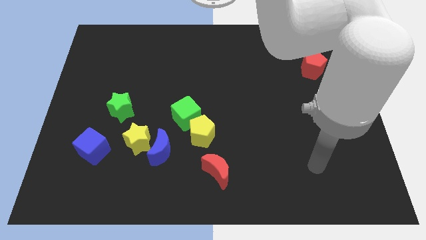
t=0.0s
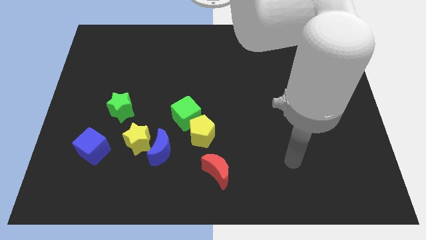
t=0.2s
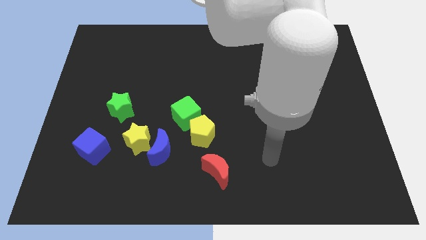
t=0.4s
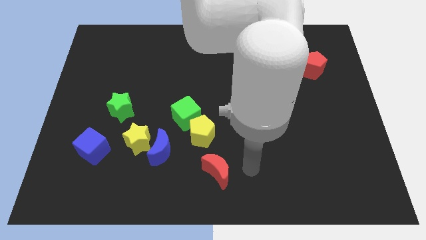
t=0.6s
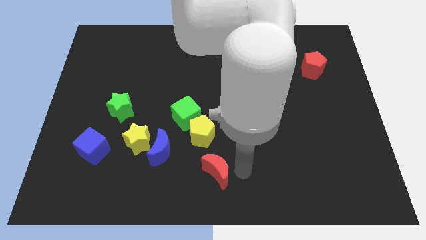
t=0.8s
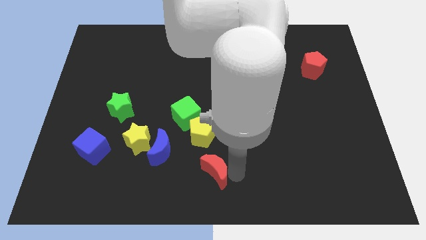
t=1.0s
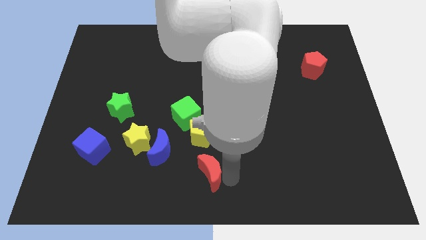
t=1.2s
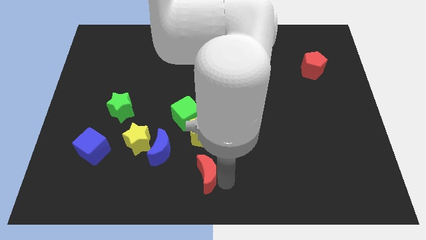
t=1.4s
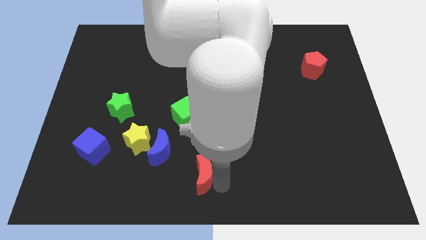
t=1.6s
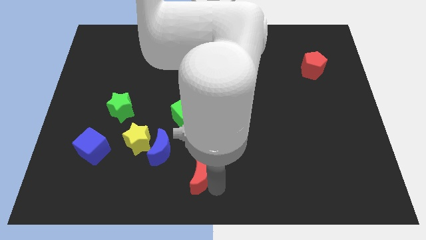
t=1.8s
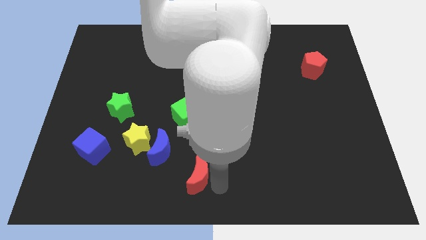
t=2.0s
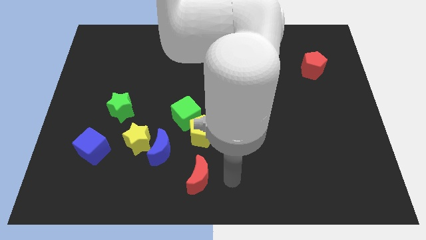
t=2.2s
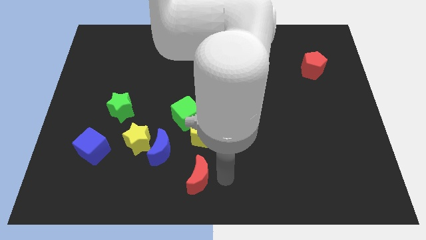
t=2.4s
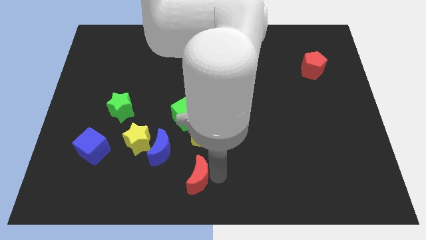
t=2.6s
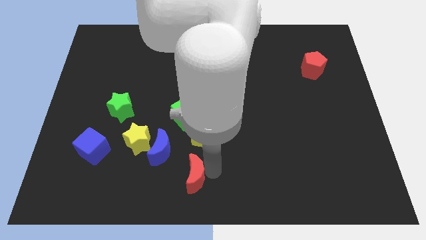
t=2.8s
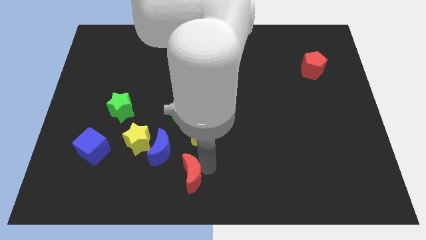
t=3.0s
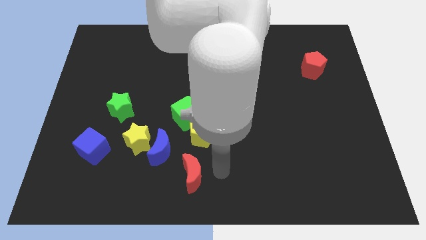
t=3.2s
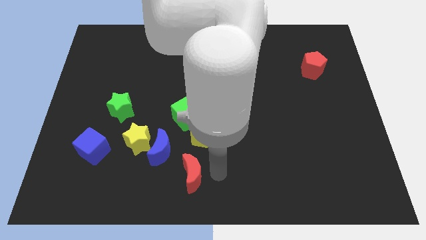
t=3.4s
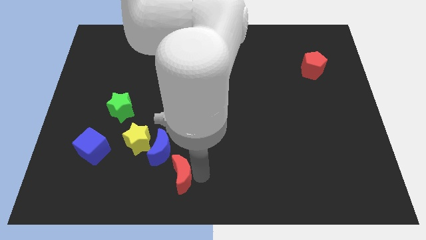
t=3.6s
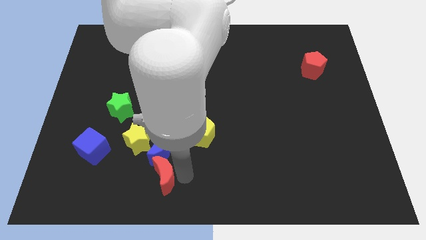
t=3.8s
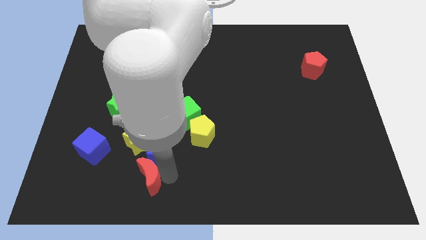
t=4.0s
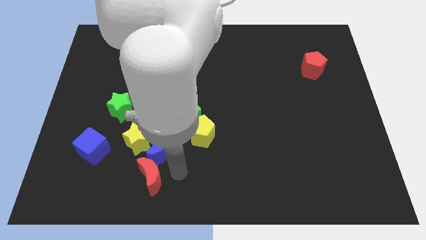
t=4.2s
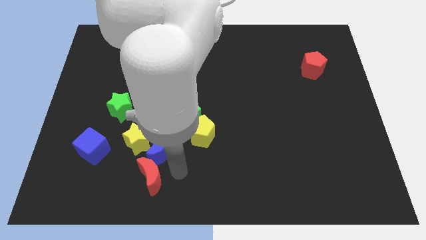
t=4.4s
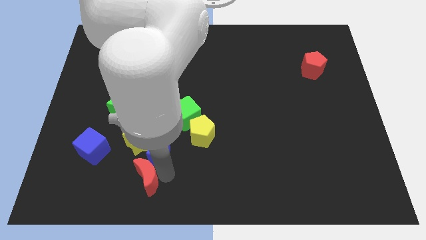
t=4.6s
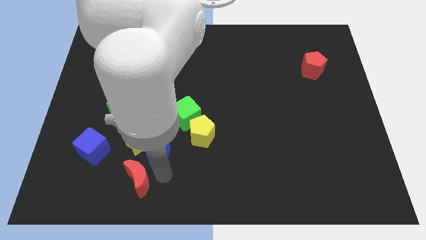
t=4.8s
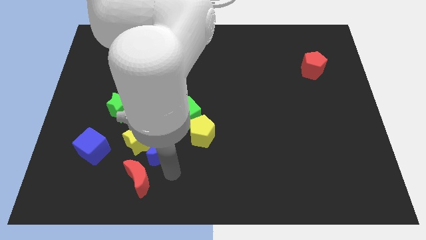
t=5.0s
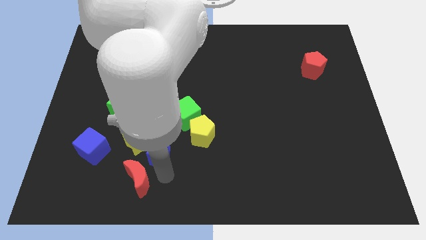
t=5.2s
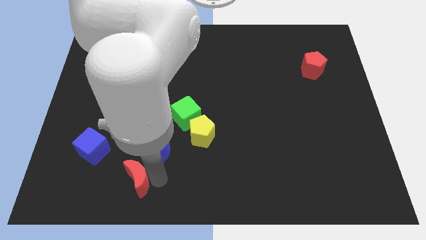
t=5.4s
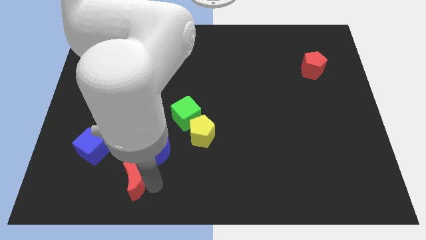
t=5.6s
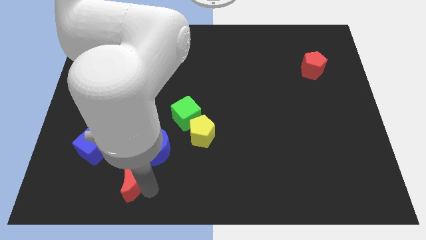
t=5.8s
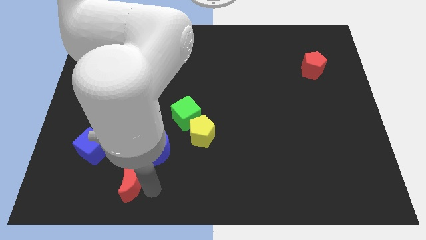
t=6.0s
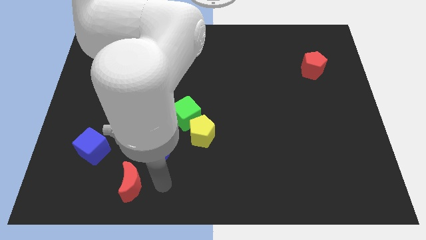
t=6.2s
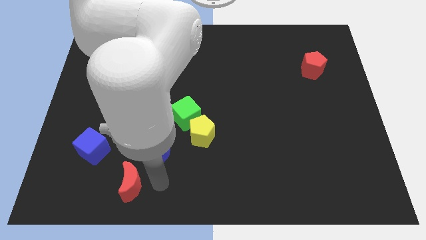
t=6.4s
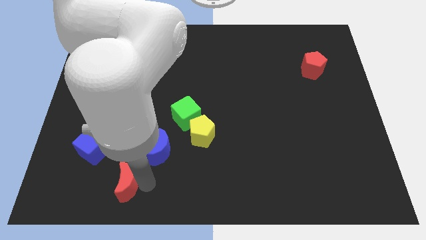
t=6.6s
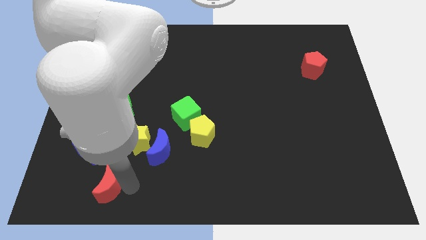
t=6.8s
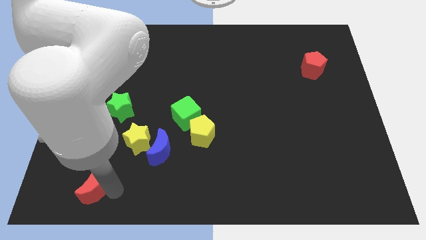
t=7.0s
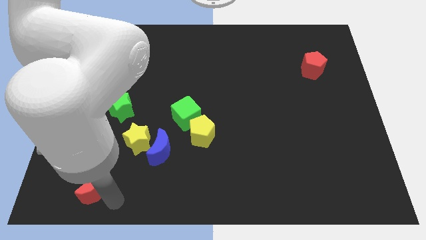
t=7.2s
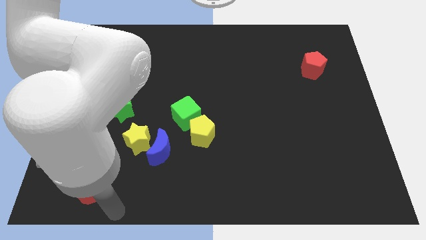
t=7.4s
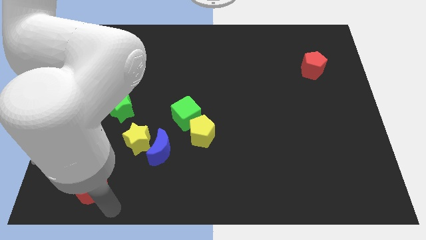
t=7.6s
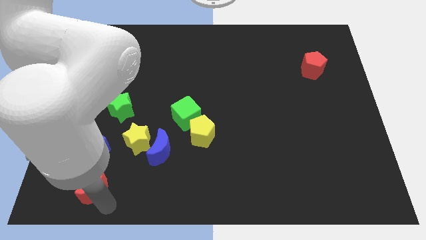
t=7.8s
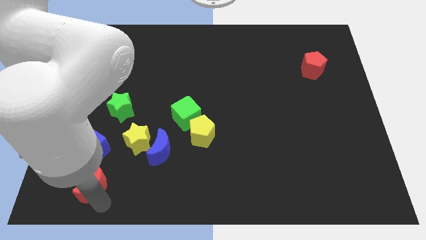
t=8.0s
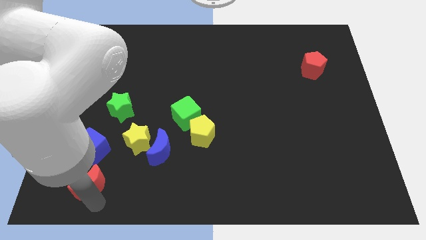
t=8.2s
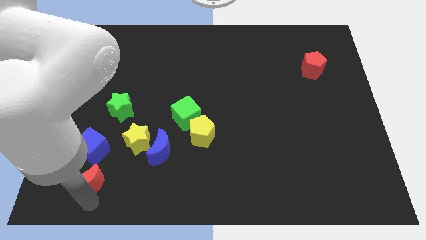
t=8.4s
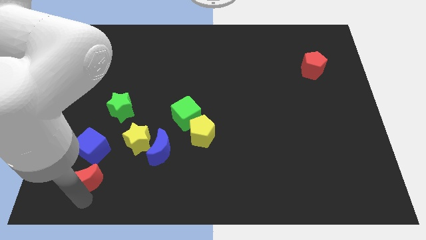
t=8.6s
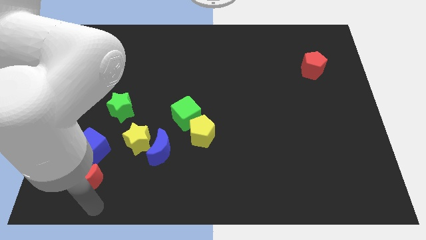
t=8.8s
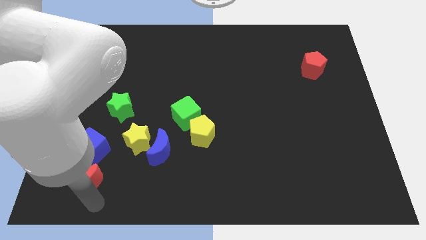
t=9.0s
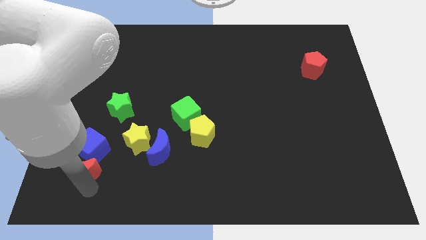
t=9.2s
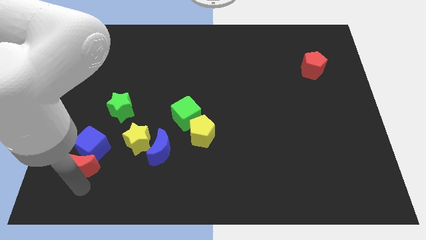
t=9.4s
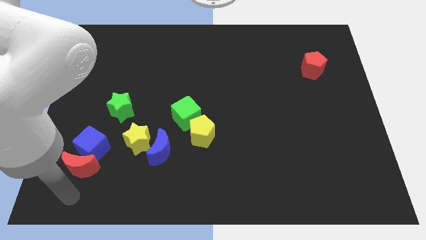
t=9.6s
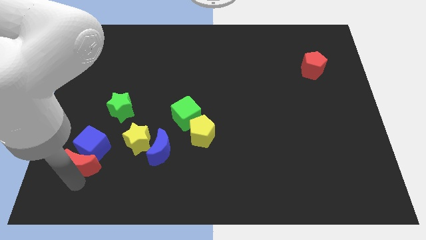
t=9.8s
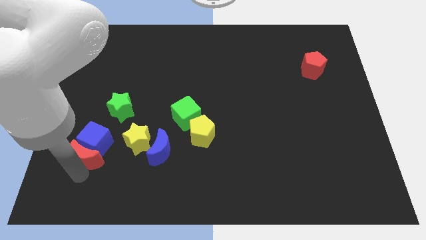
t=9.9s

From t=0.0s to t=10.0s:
put the red moon just left of the yellow star

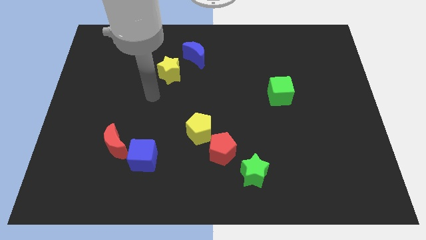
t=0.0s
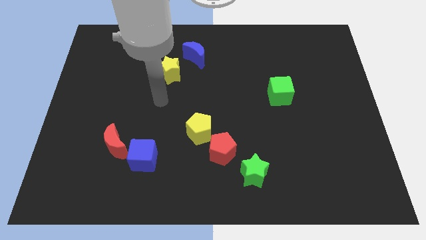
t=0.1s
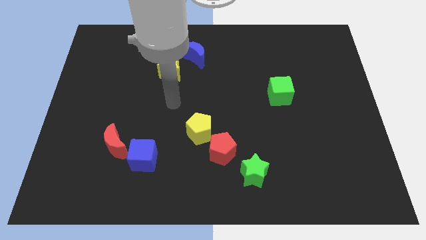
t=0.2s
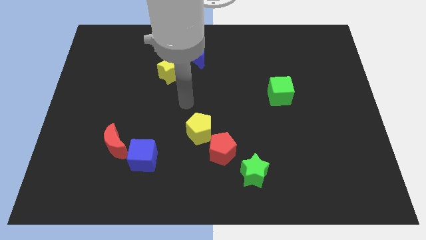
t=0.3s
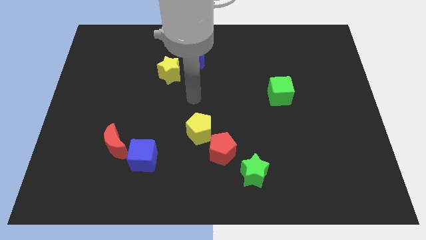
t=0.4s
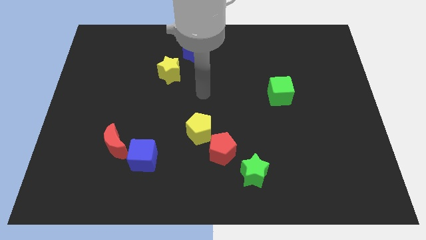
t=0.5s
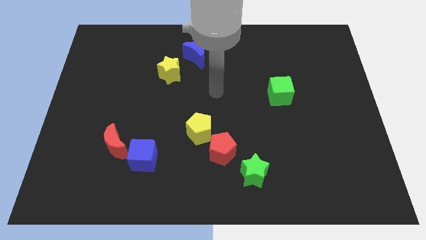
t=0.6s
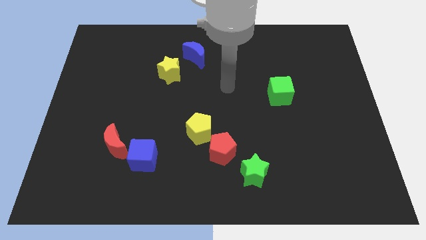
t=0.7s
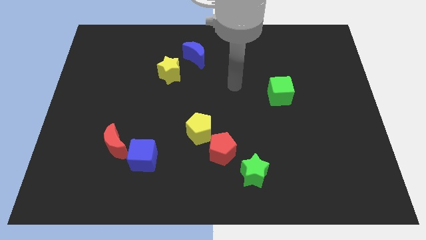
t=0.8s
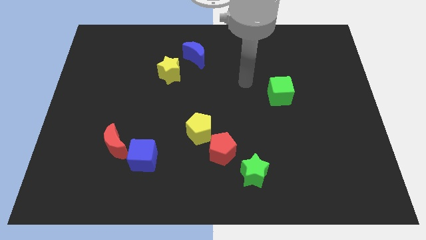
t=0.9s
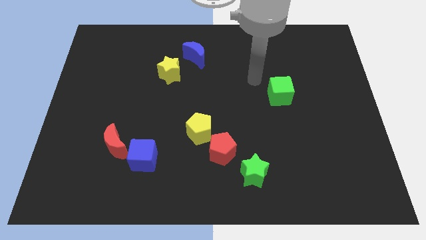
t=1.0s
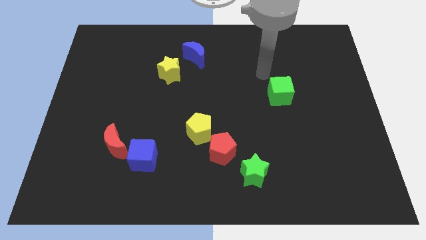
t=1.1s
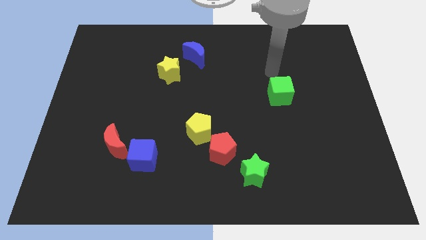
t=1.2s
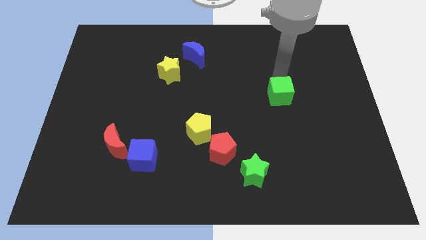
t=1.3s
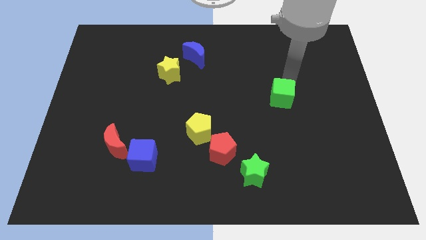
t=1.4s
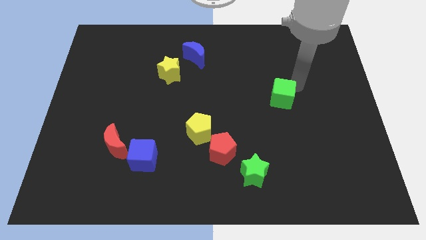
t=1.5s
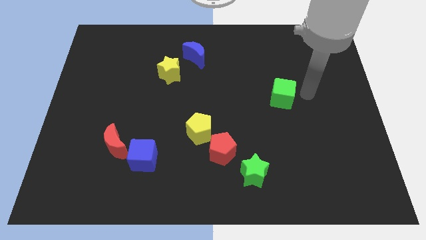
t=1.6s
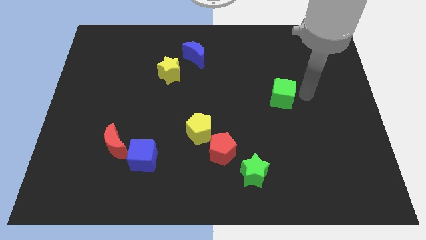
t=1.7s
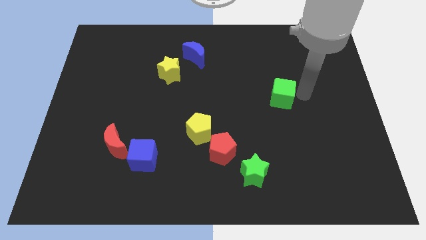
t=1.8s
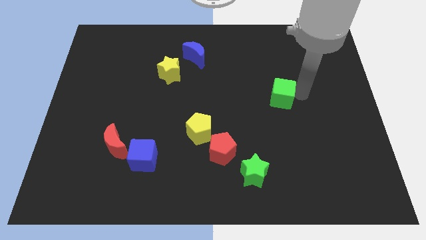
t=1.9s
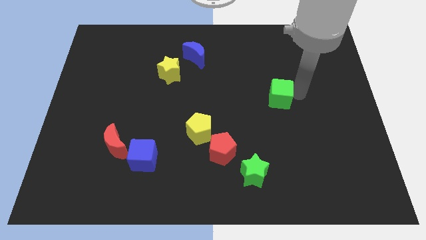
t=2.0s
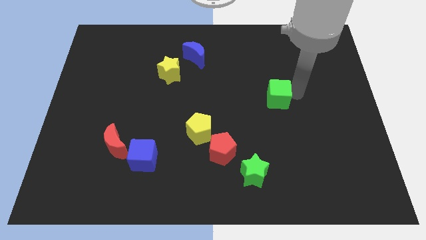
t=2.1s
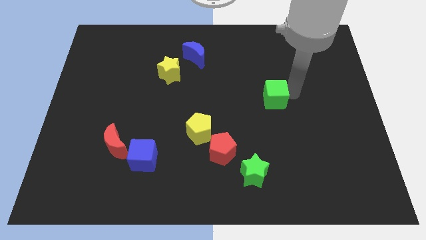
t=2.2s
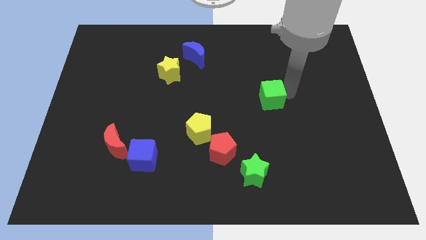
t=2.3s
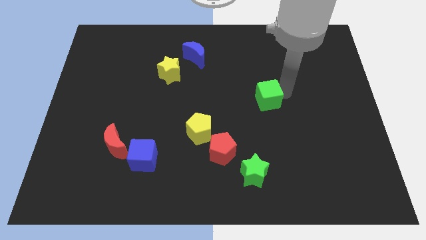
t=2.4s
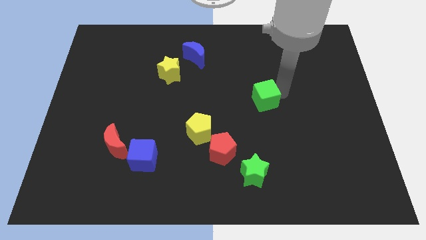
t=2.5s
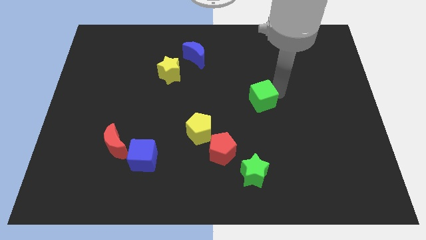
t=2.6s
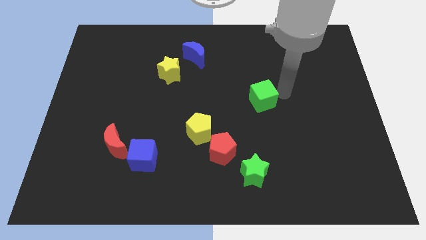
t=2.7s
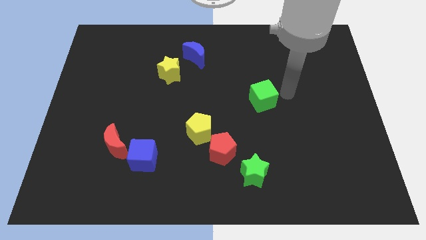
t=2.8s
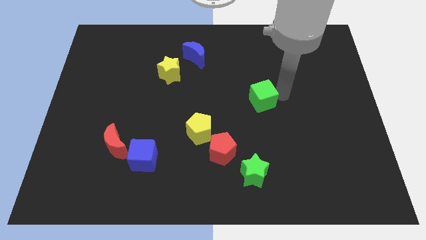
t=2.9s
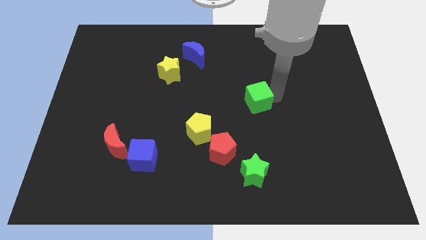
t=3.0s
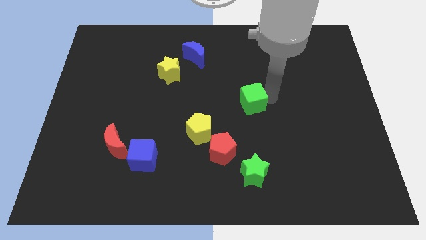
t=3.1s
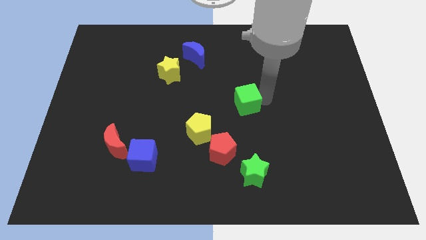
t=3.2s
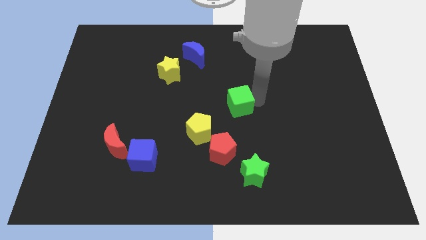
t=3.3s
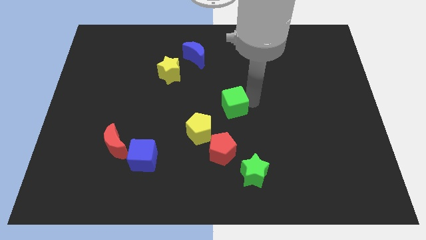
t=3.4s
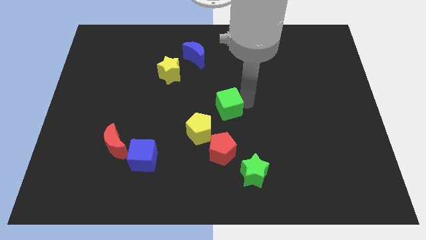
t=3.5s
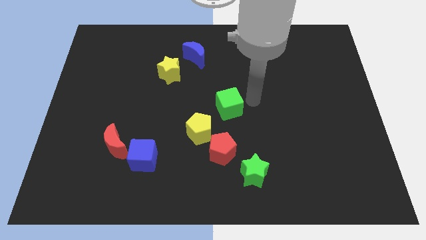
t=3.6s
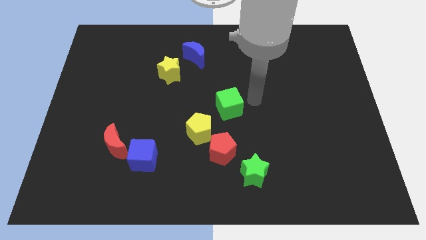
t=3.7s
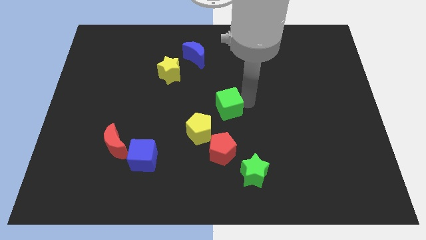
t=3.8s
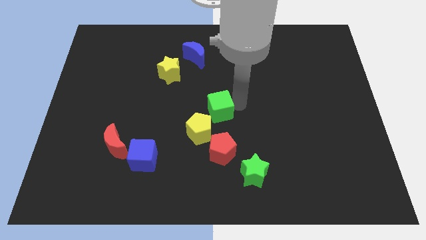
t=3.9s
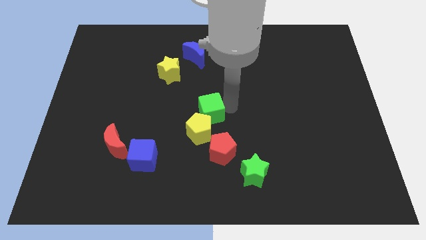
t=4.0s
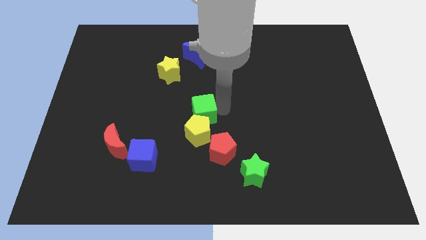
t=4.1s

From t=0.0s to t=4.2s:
move the green cube to the top left of the red pentagon
